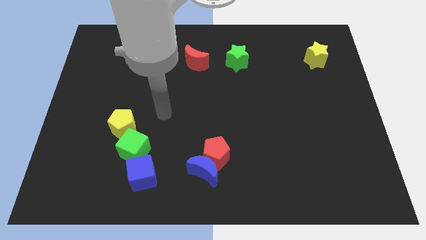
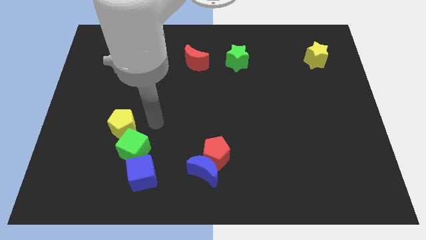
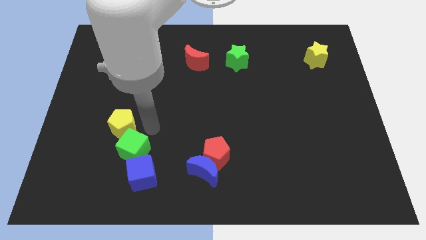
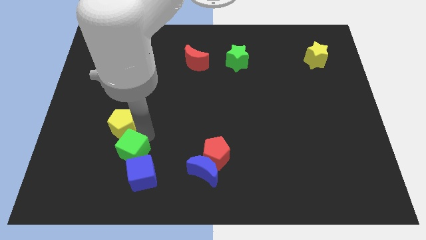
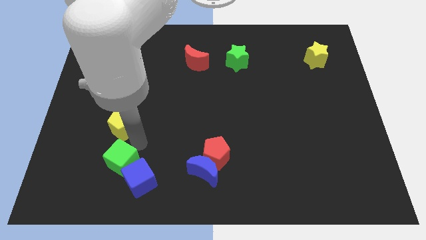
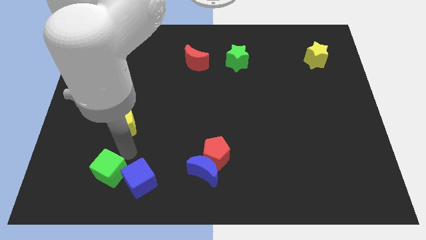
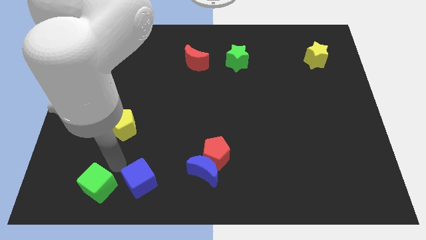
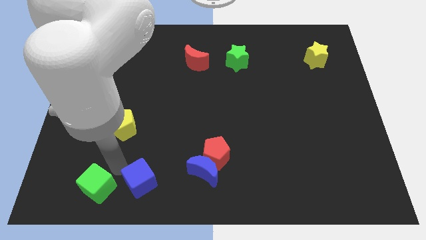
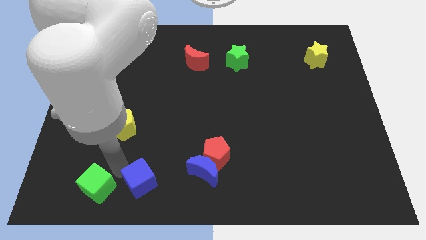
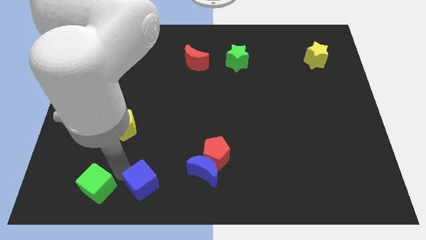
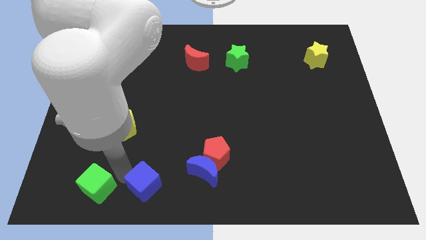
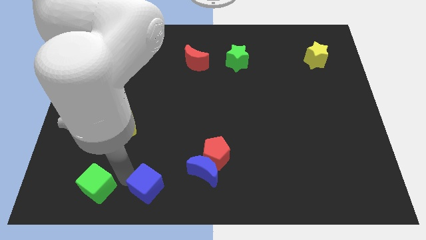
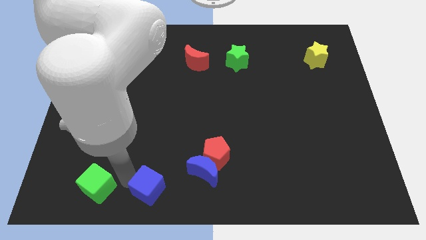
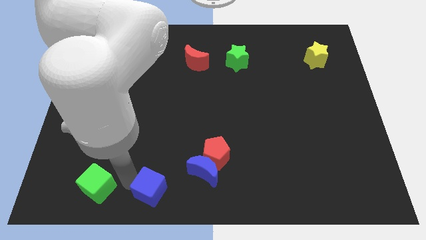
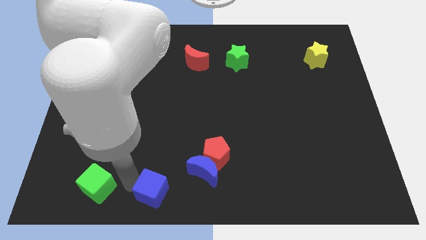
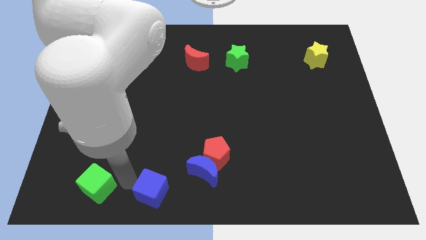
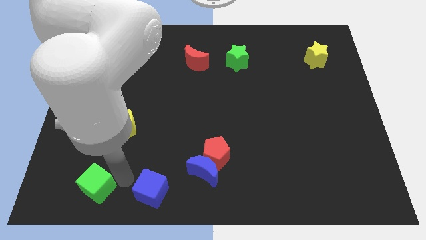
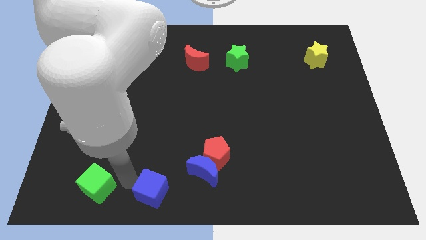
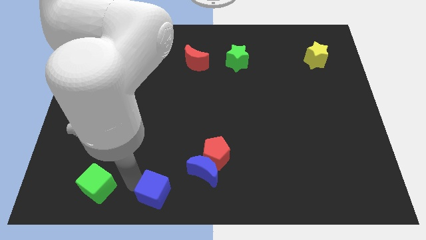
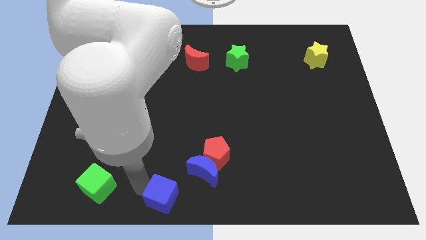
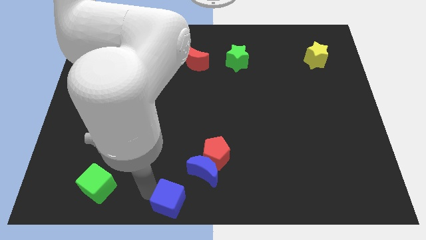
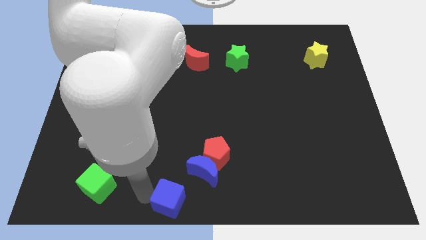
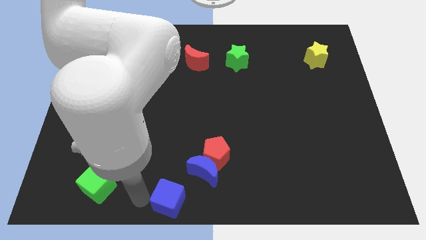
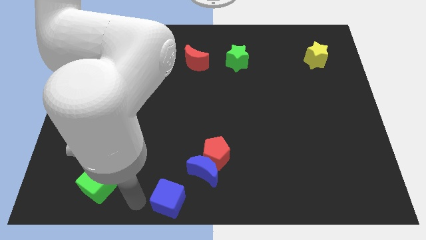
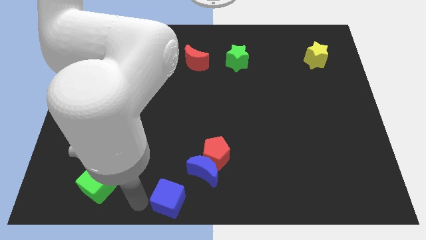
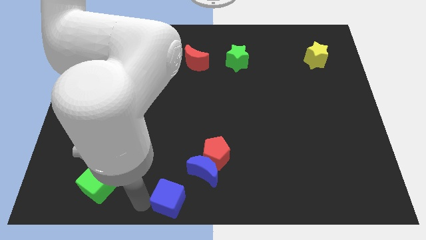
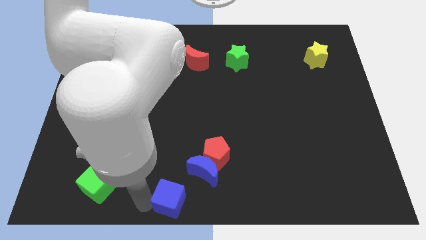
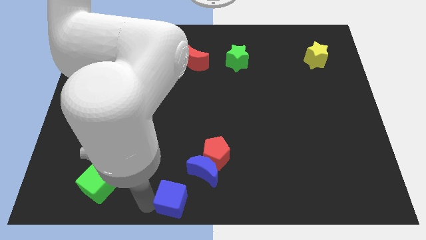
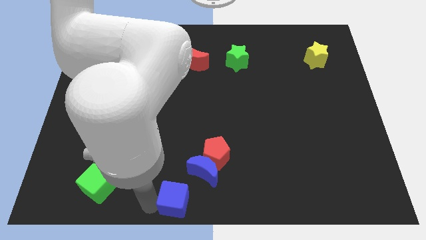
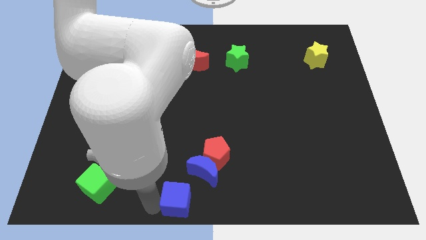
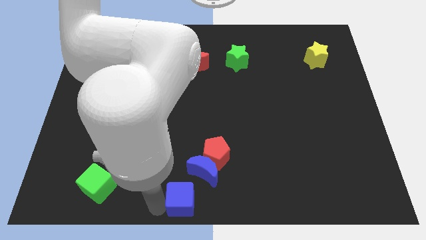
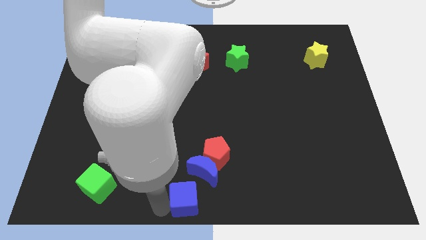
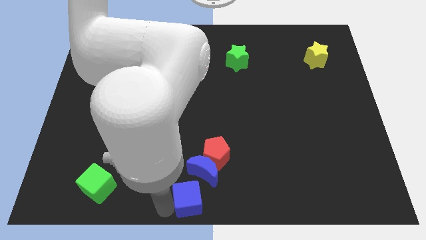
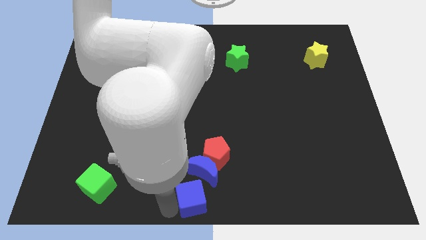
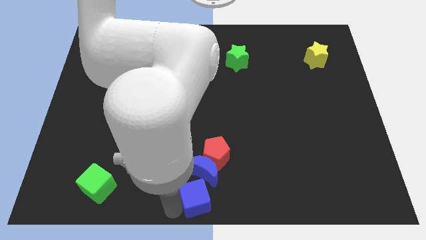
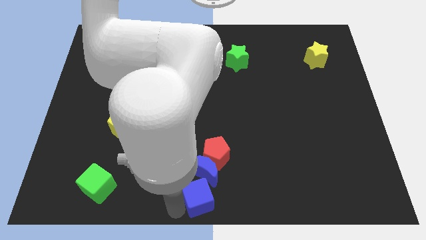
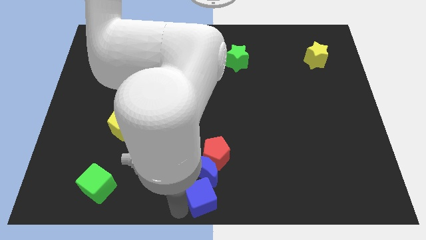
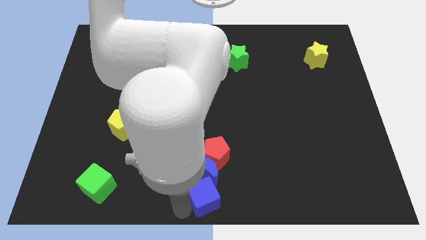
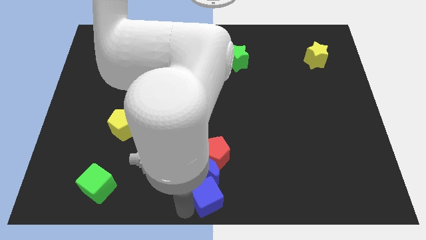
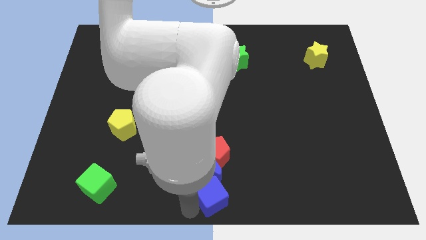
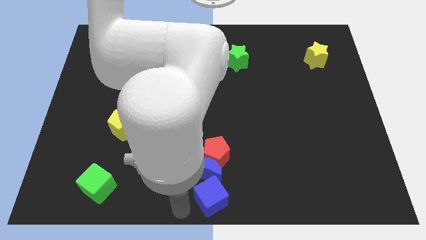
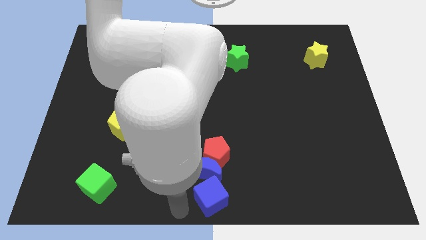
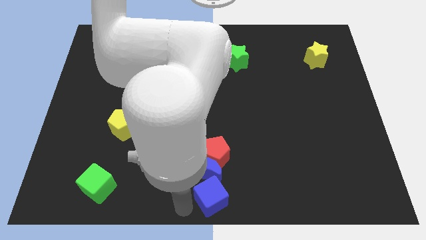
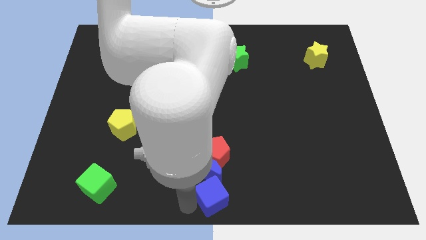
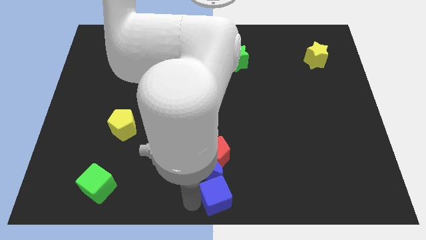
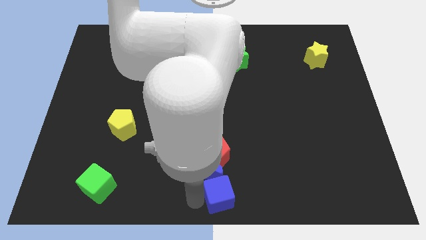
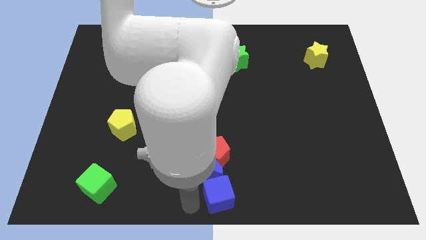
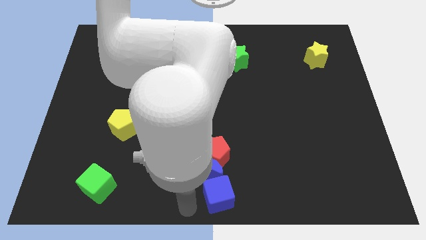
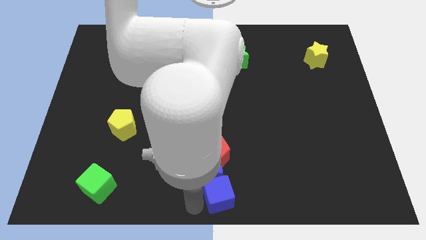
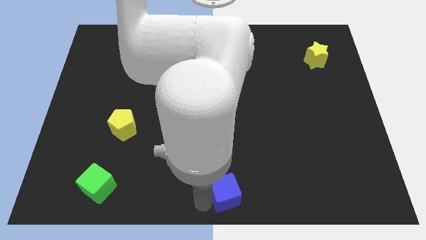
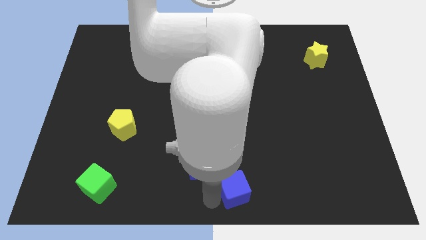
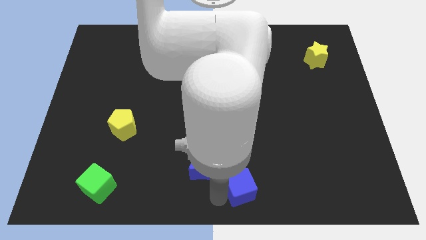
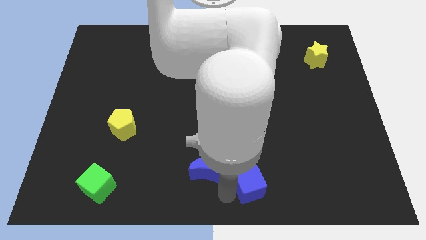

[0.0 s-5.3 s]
slide the blue cube to the right

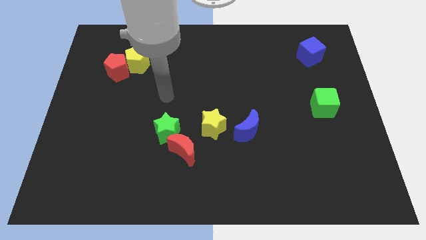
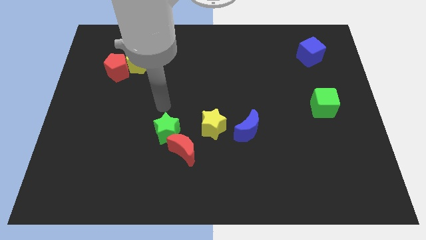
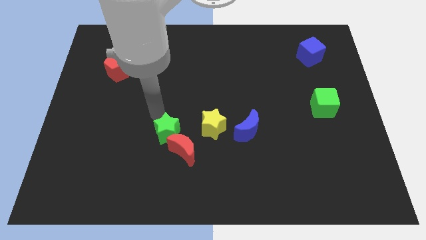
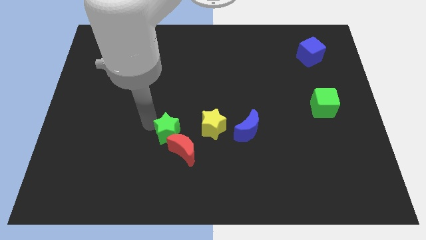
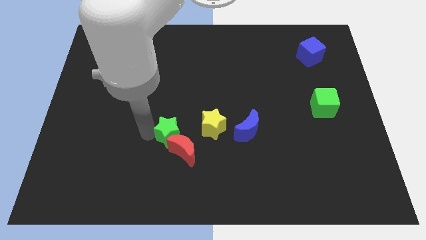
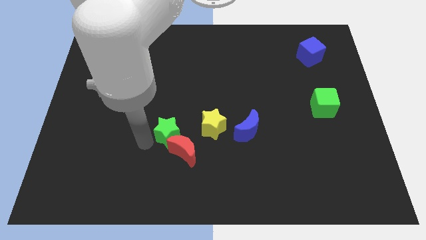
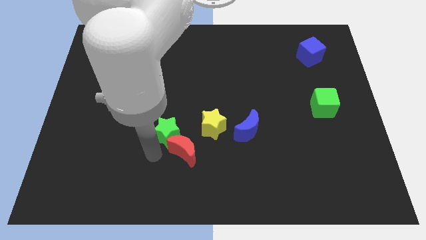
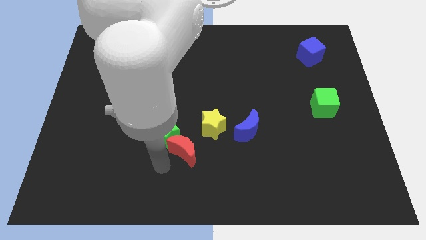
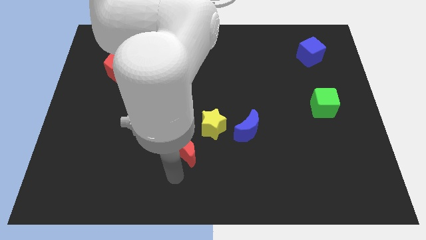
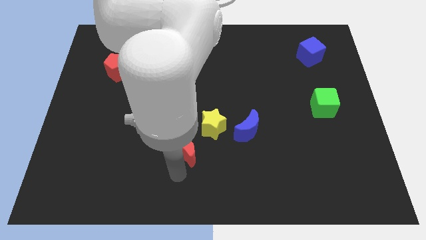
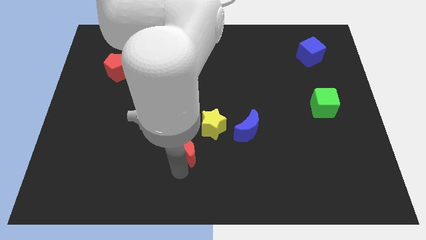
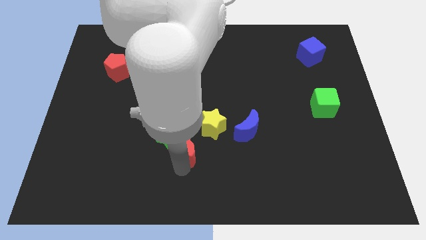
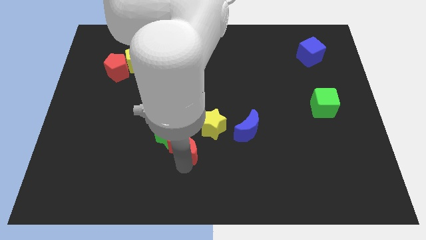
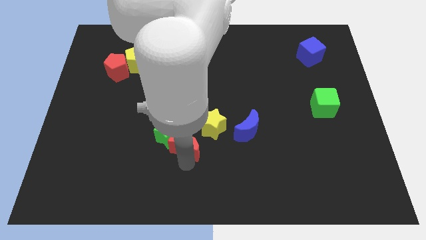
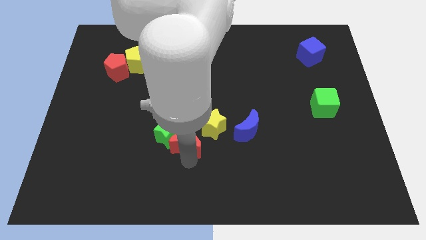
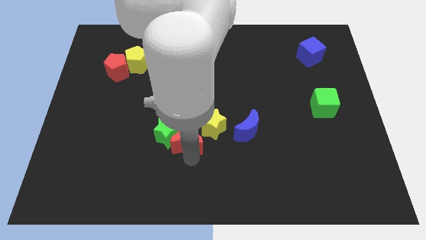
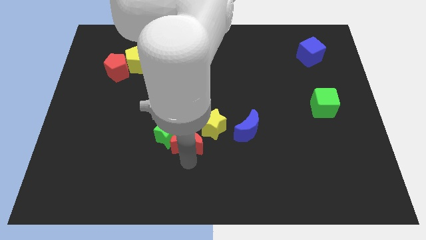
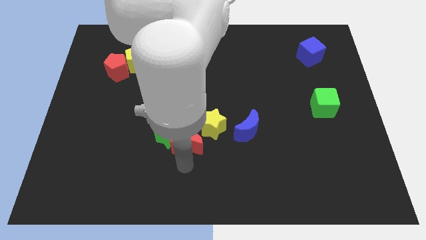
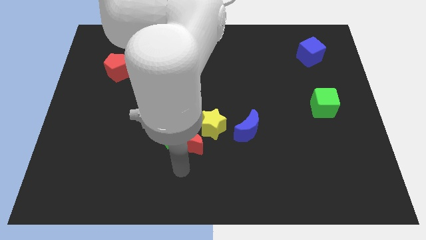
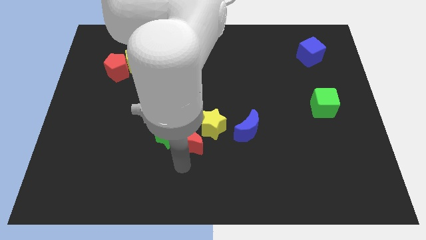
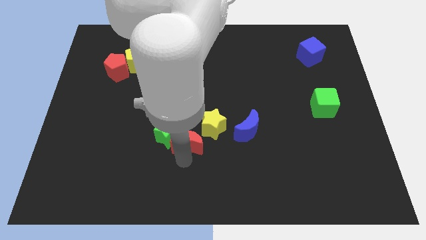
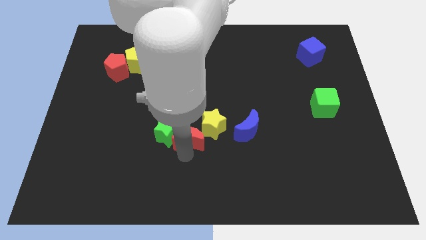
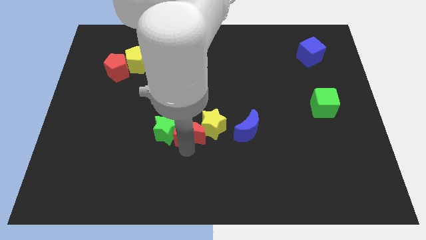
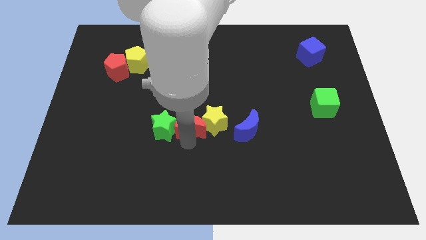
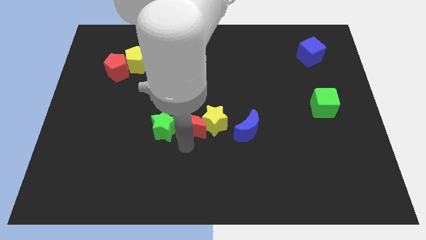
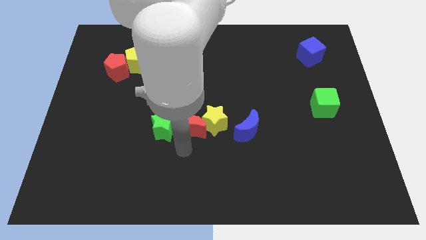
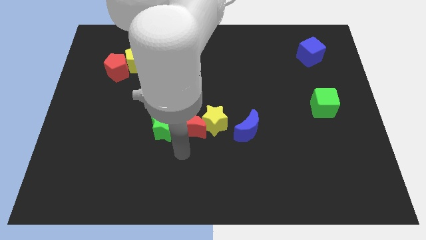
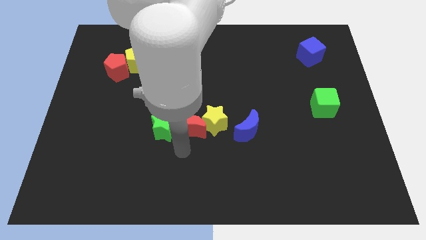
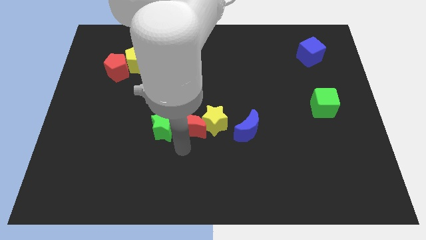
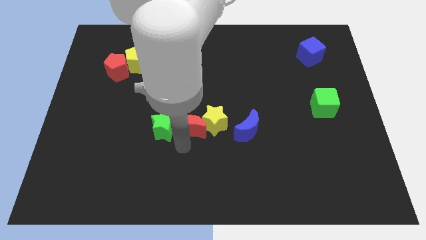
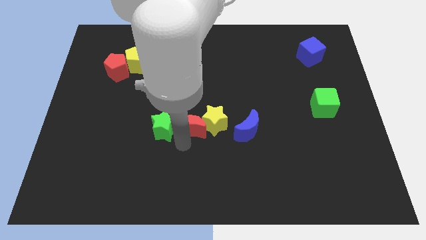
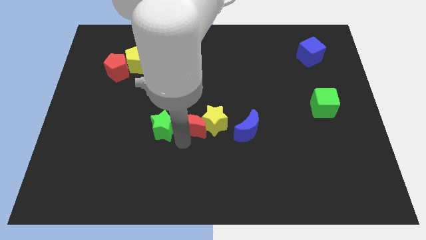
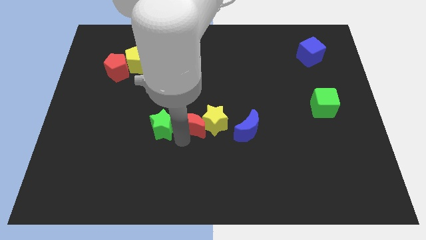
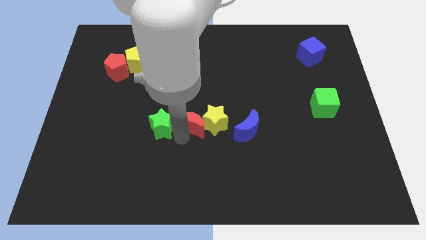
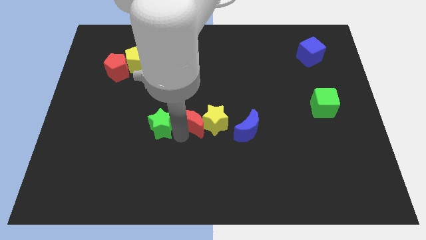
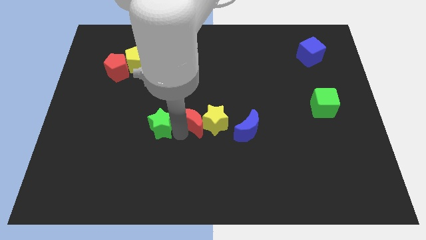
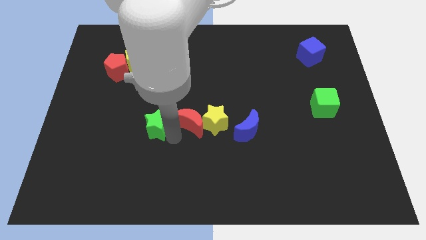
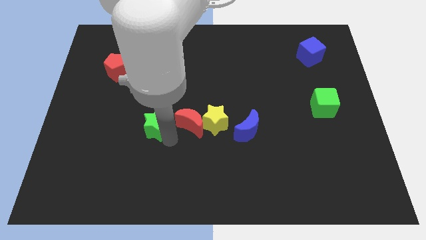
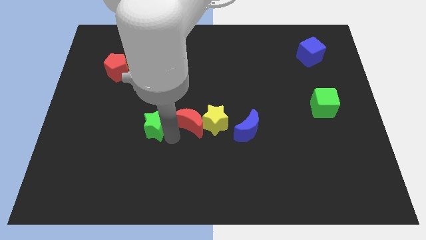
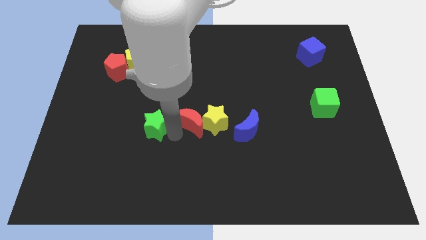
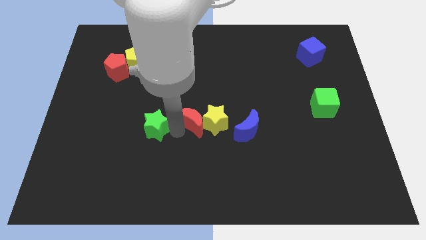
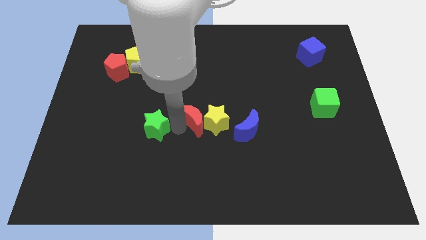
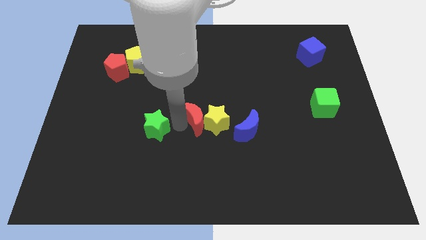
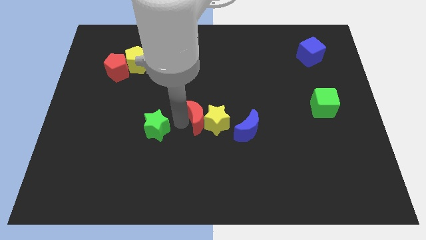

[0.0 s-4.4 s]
push the red moon diagonally up and to the right a little
